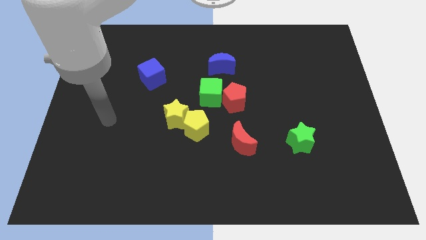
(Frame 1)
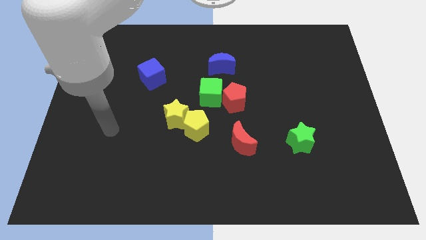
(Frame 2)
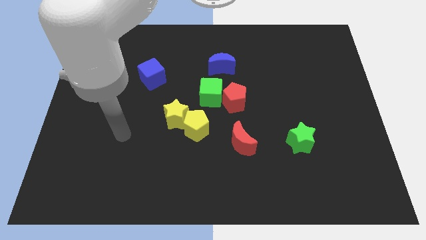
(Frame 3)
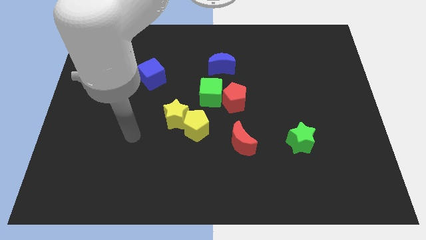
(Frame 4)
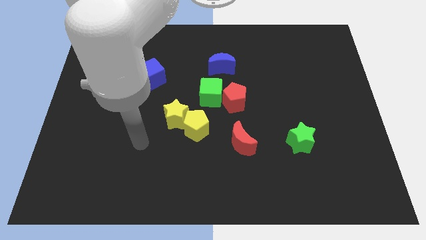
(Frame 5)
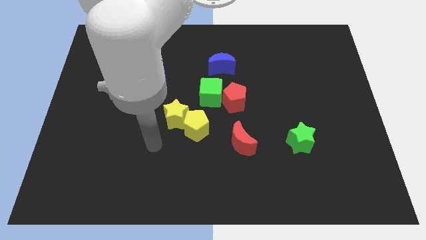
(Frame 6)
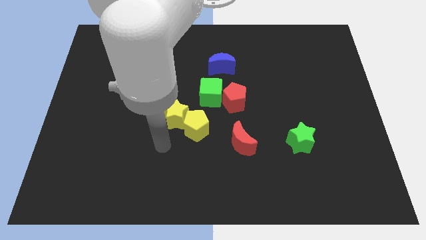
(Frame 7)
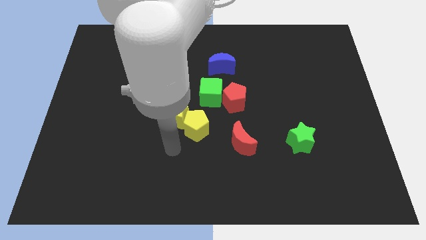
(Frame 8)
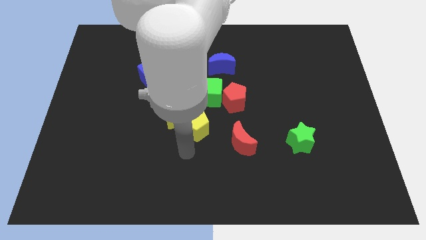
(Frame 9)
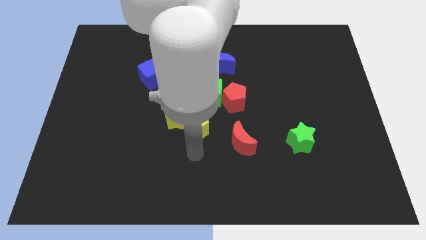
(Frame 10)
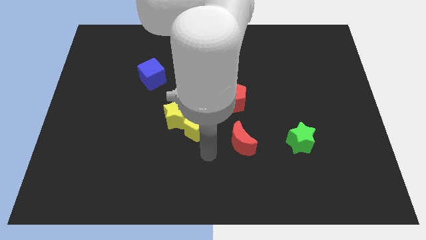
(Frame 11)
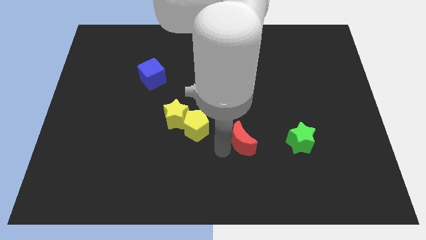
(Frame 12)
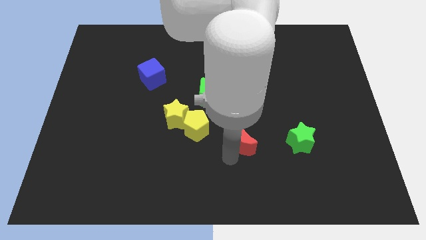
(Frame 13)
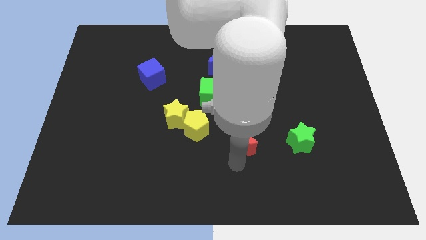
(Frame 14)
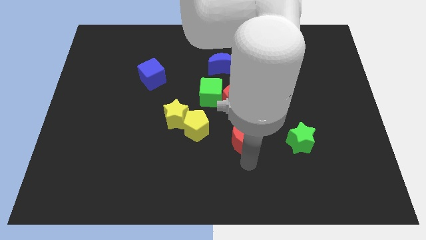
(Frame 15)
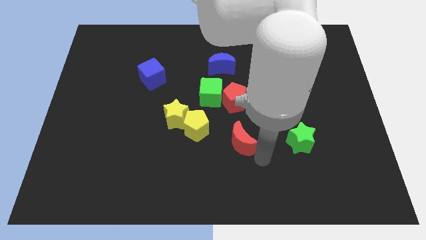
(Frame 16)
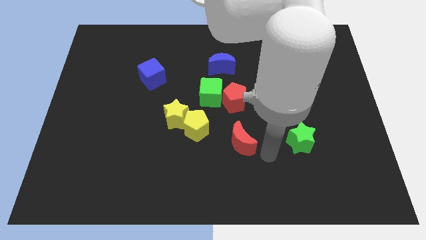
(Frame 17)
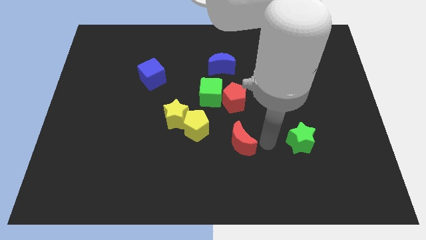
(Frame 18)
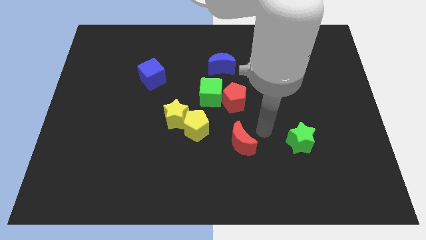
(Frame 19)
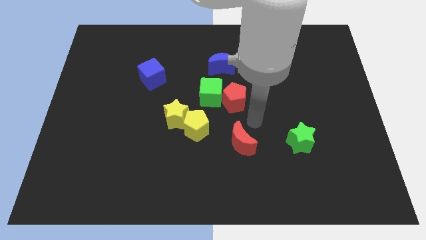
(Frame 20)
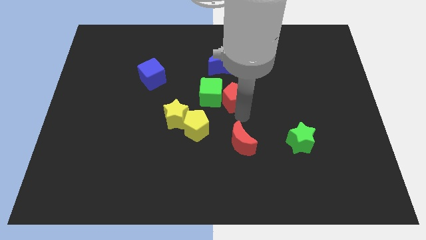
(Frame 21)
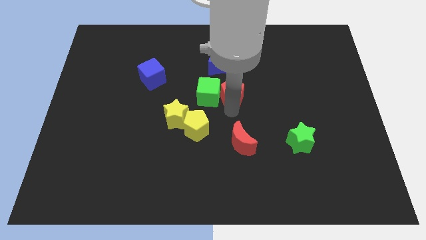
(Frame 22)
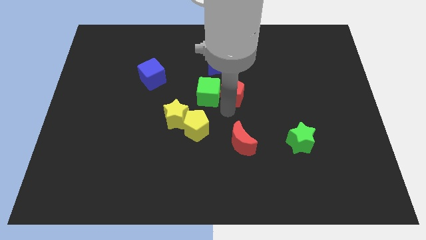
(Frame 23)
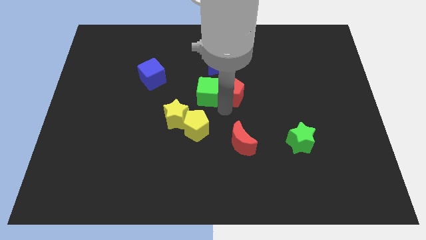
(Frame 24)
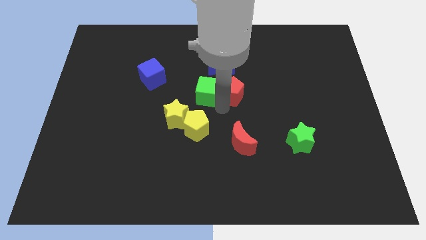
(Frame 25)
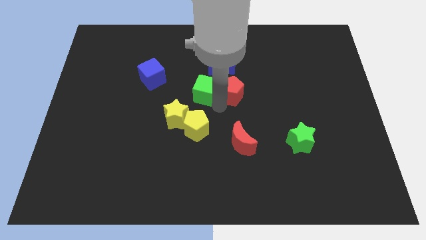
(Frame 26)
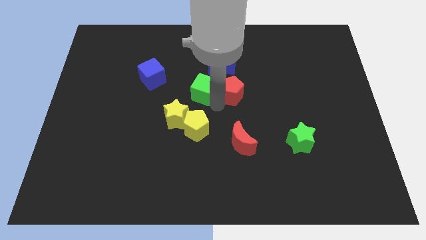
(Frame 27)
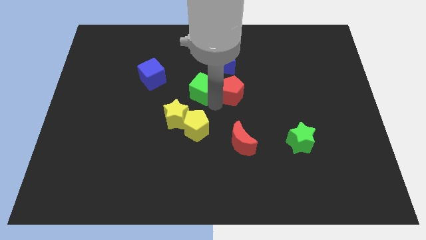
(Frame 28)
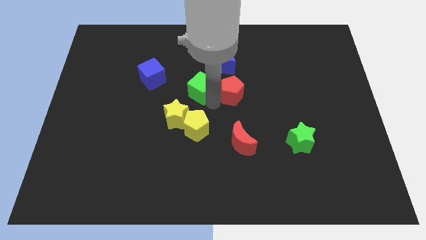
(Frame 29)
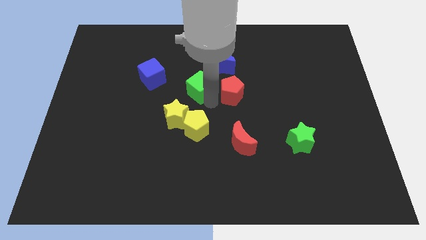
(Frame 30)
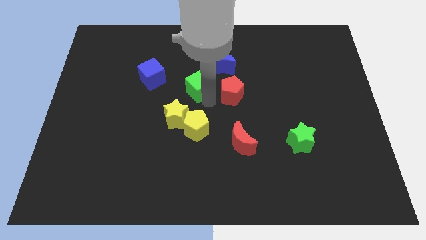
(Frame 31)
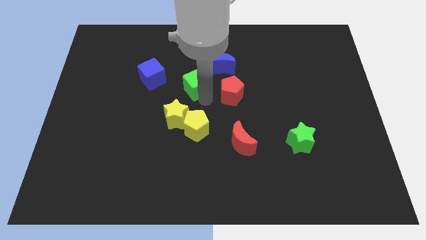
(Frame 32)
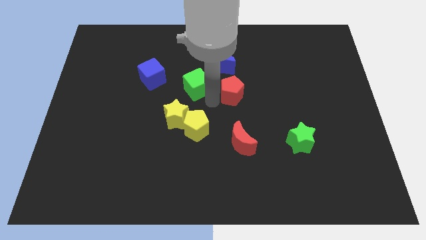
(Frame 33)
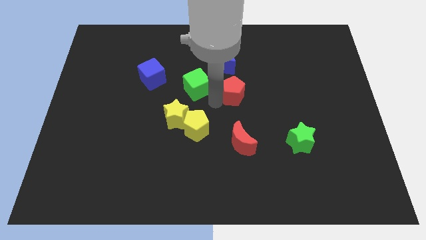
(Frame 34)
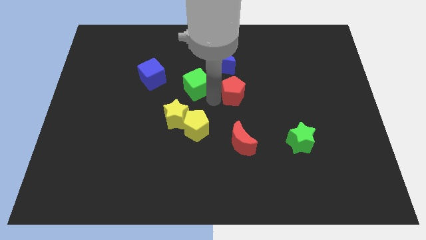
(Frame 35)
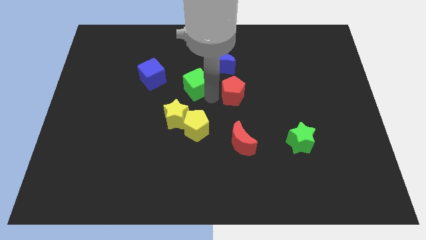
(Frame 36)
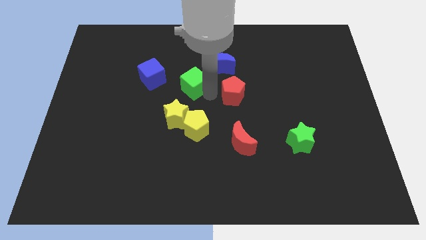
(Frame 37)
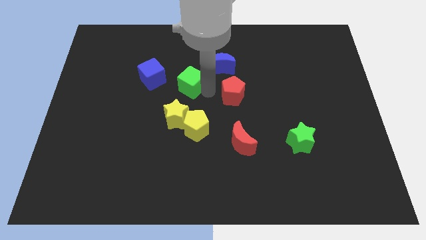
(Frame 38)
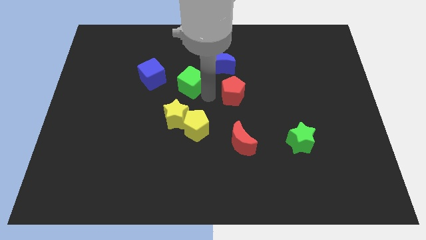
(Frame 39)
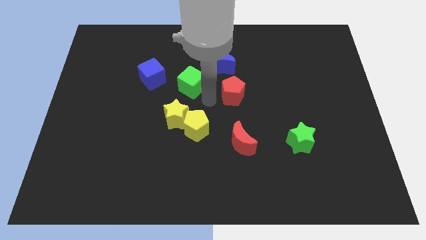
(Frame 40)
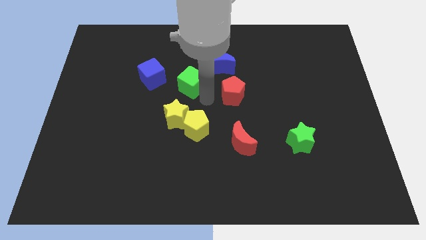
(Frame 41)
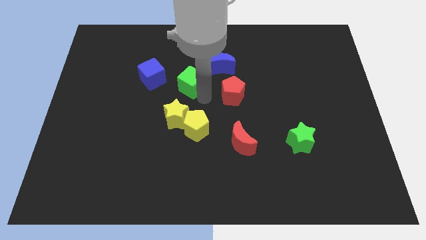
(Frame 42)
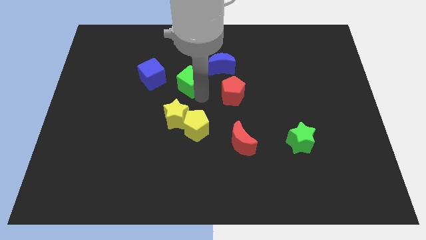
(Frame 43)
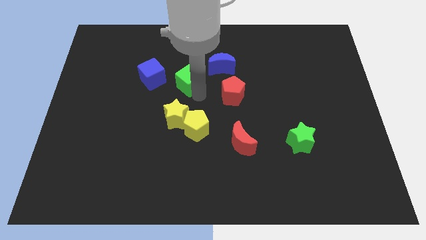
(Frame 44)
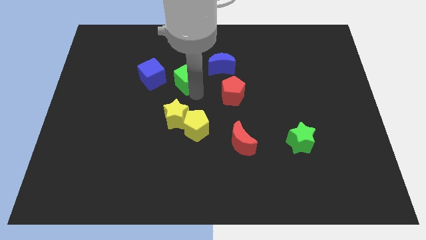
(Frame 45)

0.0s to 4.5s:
move the green cube up and then left slightly

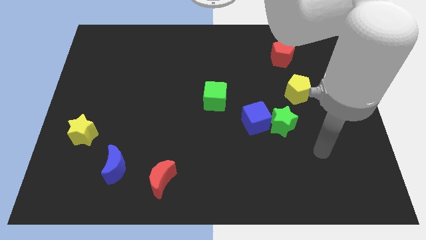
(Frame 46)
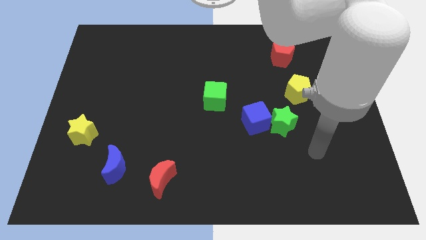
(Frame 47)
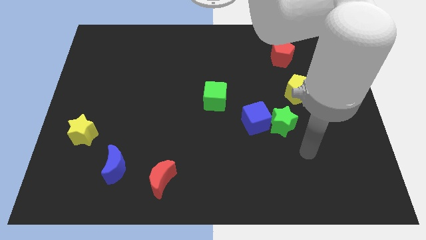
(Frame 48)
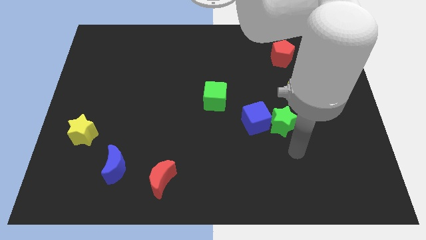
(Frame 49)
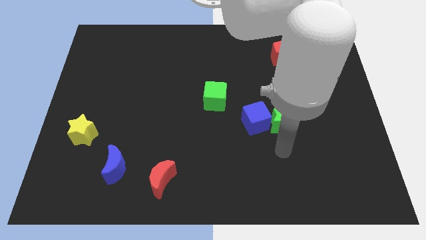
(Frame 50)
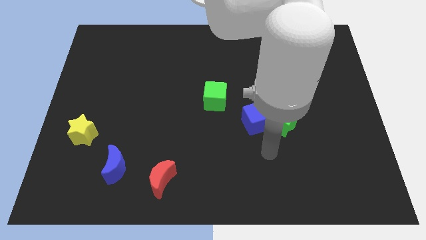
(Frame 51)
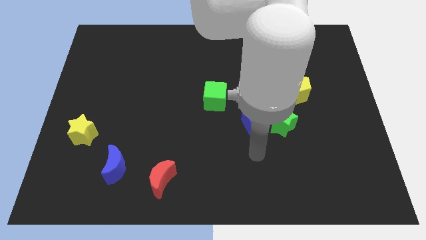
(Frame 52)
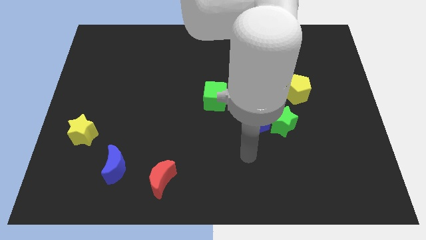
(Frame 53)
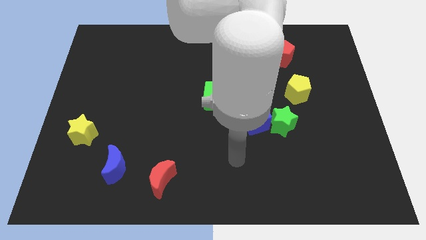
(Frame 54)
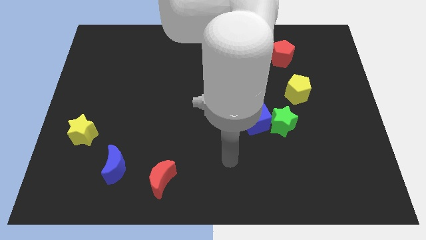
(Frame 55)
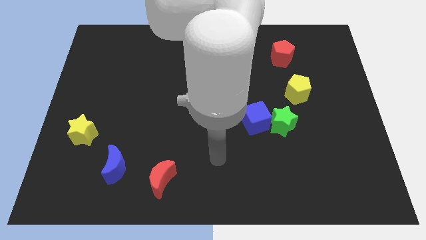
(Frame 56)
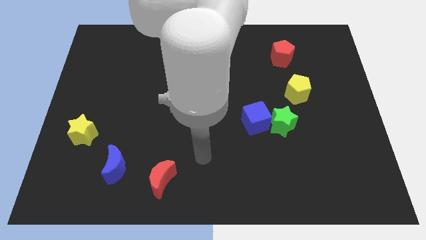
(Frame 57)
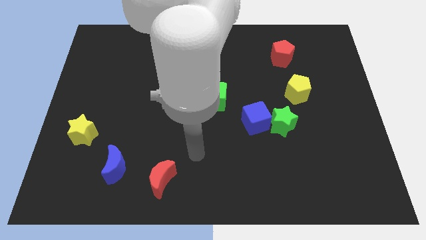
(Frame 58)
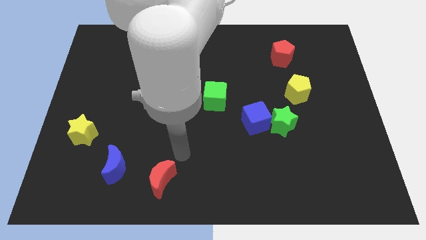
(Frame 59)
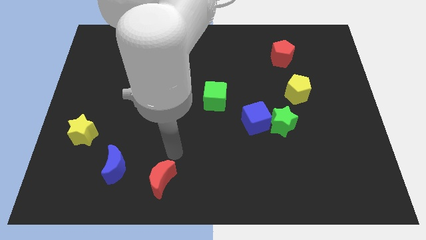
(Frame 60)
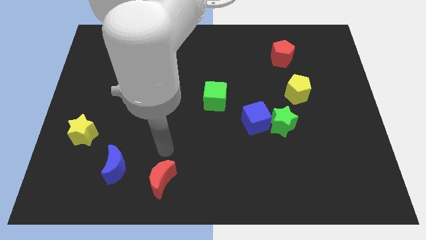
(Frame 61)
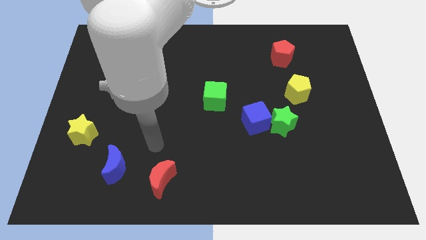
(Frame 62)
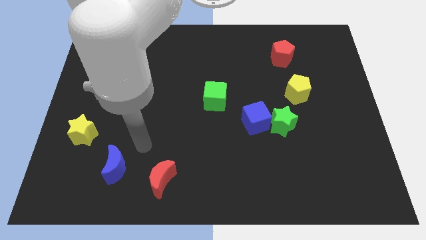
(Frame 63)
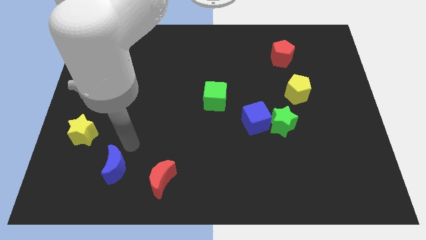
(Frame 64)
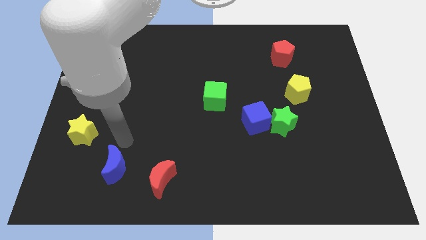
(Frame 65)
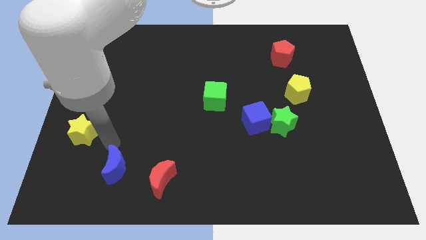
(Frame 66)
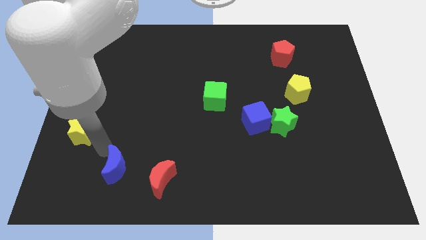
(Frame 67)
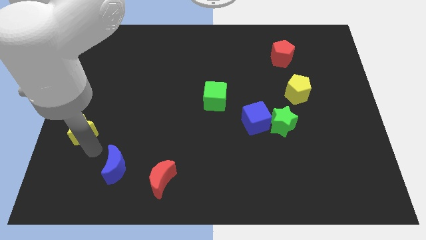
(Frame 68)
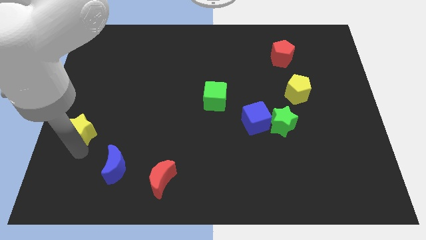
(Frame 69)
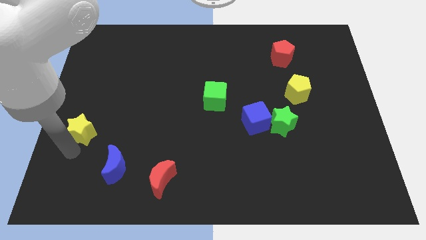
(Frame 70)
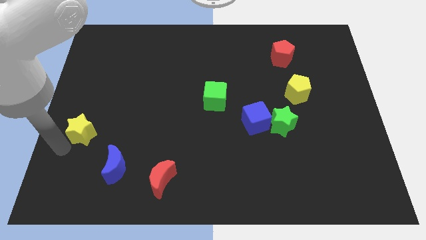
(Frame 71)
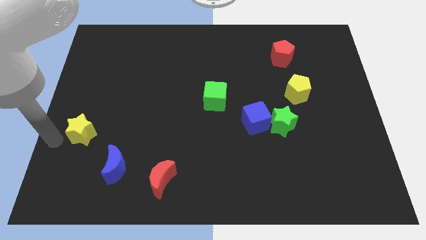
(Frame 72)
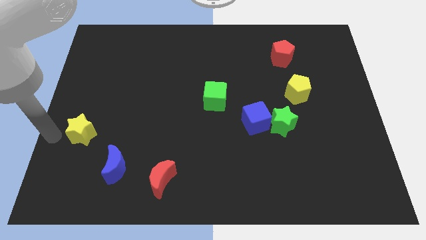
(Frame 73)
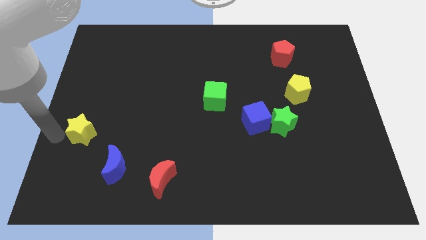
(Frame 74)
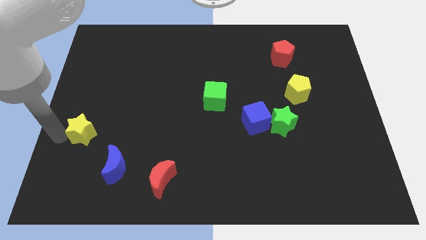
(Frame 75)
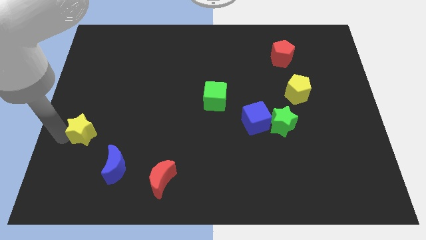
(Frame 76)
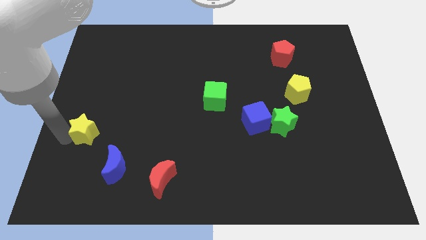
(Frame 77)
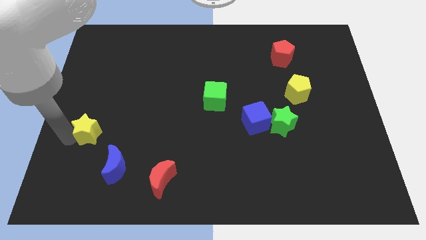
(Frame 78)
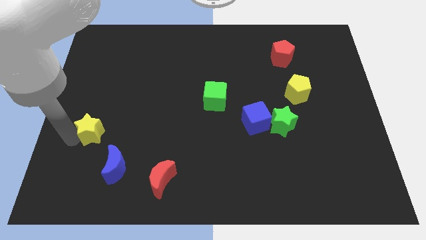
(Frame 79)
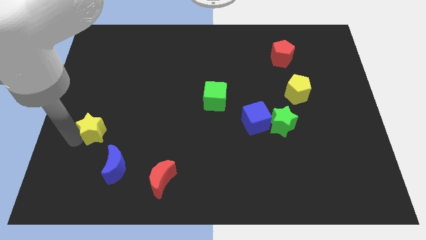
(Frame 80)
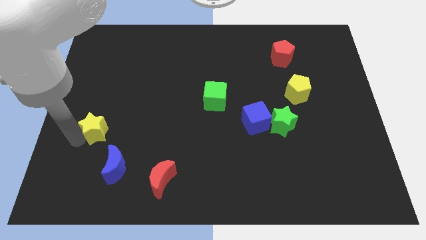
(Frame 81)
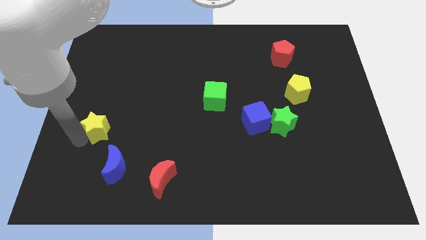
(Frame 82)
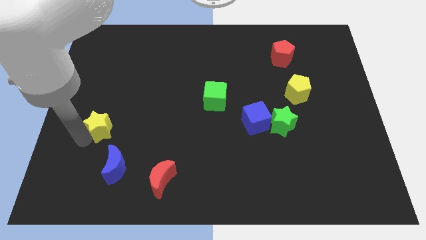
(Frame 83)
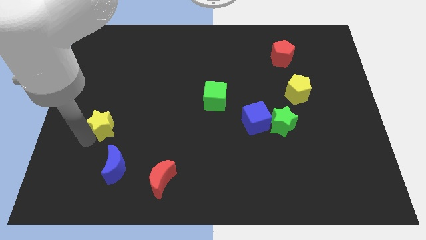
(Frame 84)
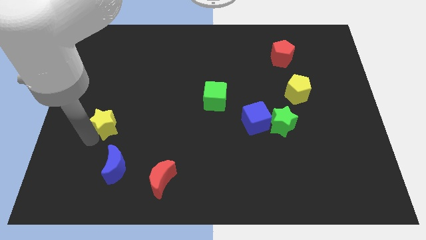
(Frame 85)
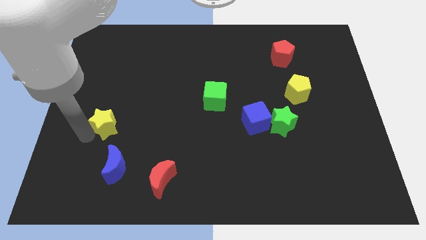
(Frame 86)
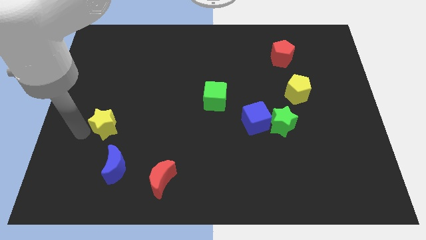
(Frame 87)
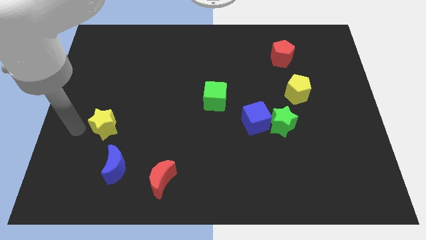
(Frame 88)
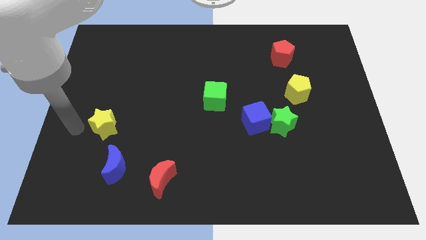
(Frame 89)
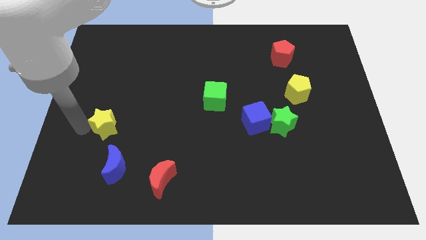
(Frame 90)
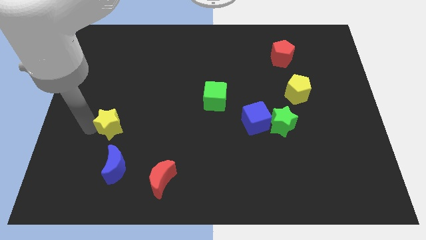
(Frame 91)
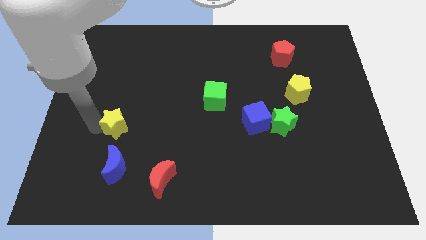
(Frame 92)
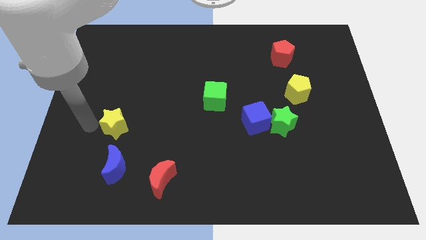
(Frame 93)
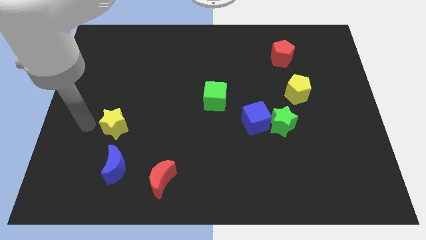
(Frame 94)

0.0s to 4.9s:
move the yellow star a little bit right
